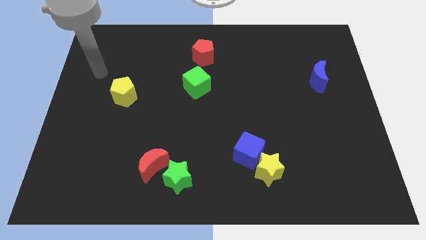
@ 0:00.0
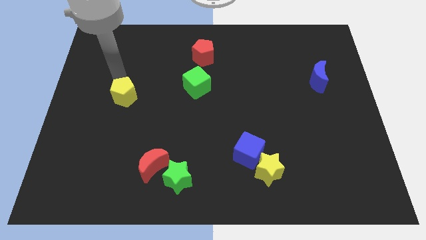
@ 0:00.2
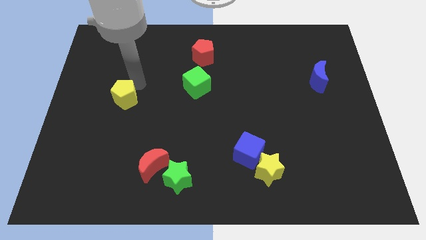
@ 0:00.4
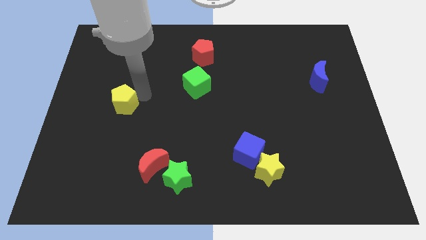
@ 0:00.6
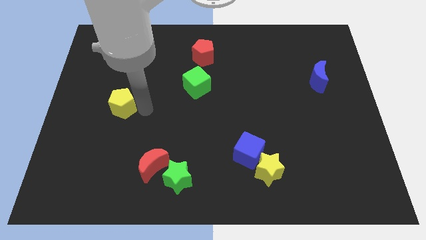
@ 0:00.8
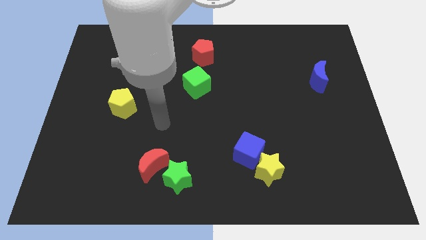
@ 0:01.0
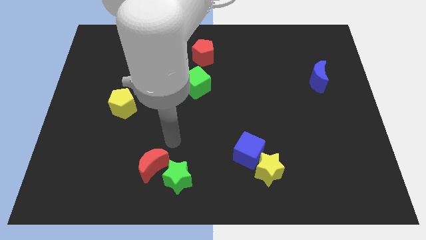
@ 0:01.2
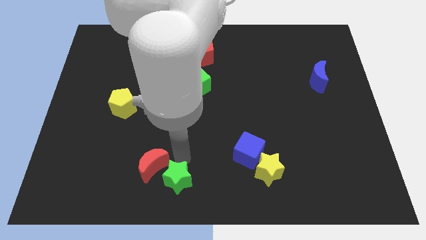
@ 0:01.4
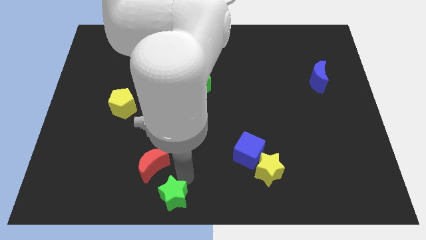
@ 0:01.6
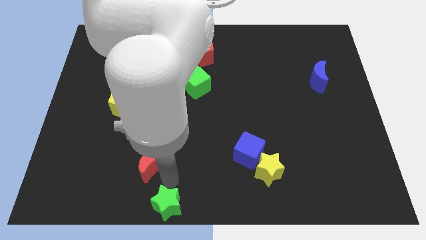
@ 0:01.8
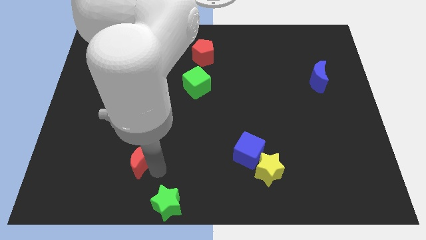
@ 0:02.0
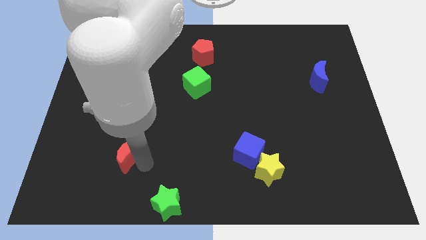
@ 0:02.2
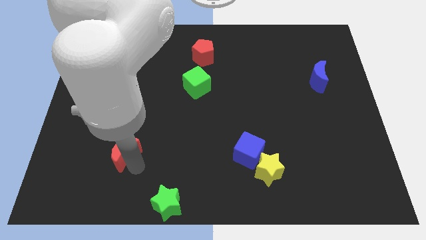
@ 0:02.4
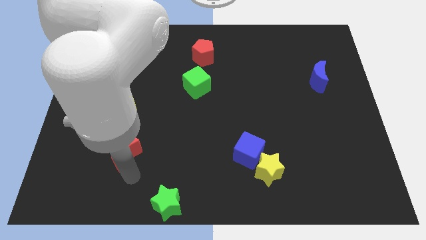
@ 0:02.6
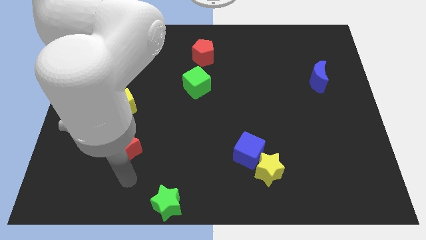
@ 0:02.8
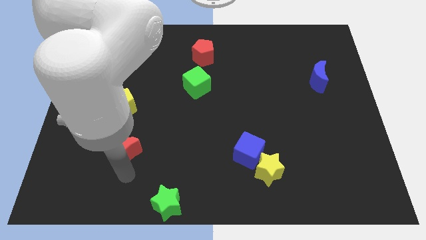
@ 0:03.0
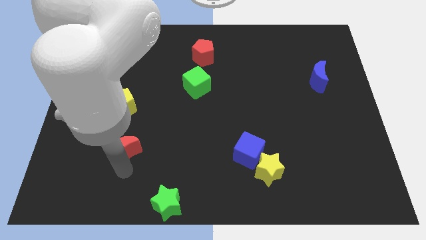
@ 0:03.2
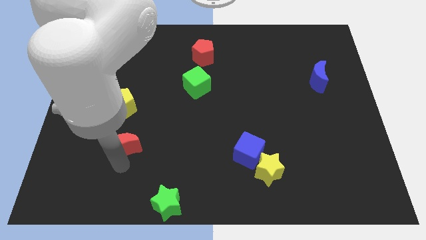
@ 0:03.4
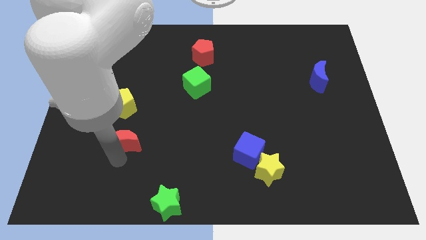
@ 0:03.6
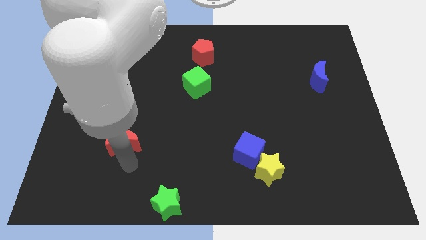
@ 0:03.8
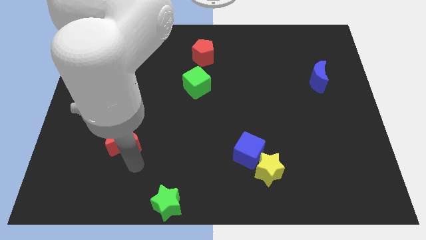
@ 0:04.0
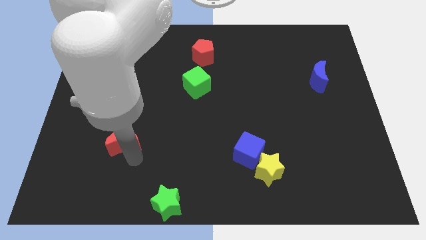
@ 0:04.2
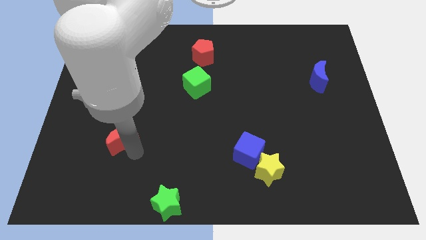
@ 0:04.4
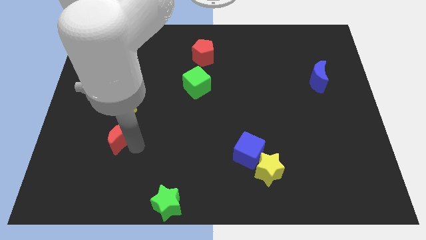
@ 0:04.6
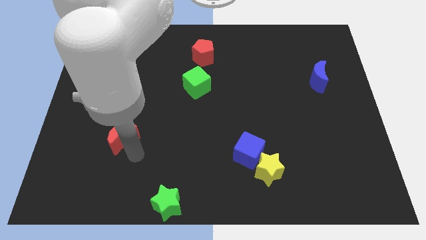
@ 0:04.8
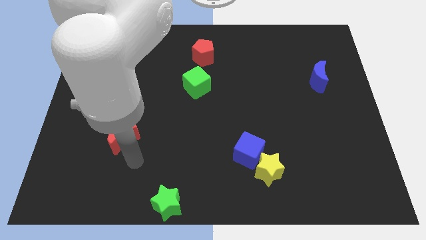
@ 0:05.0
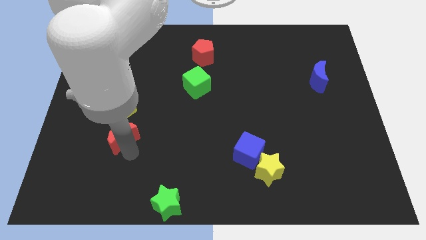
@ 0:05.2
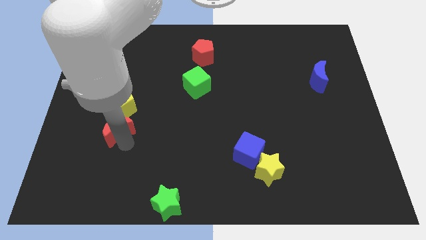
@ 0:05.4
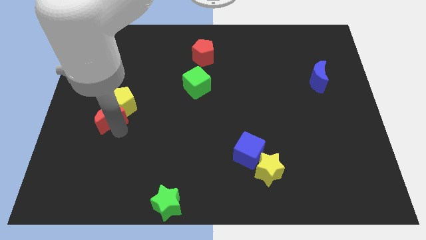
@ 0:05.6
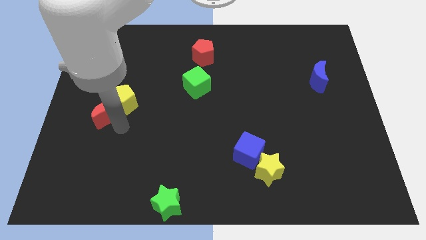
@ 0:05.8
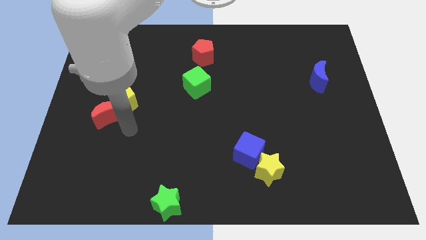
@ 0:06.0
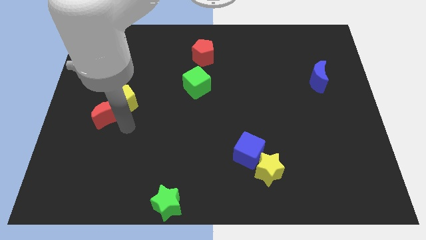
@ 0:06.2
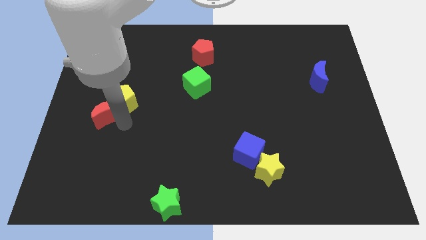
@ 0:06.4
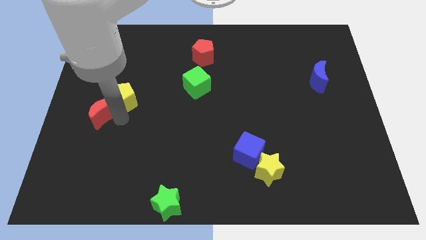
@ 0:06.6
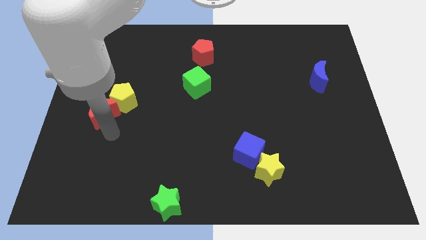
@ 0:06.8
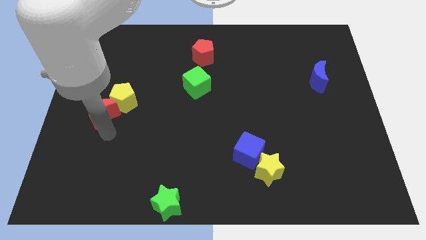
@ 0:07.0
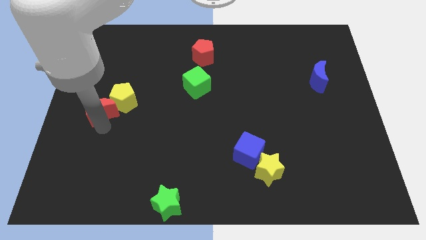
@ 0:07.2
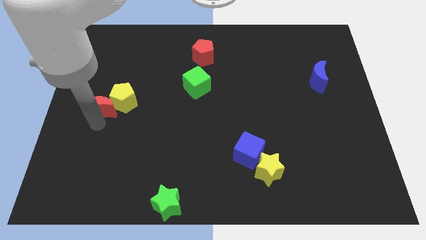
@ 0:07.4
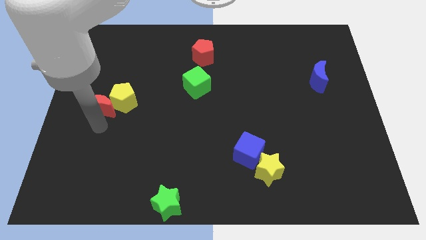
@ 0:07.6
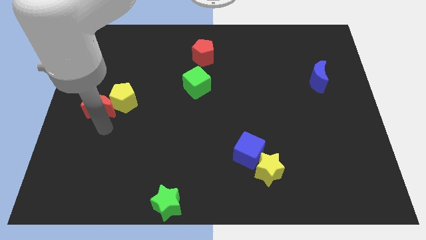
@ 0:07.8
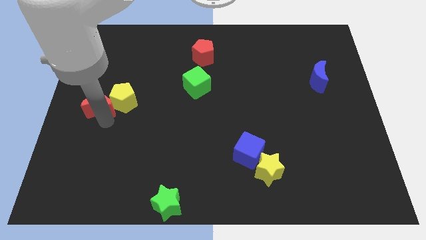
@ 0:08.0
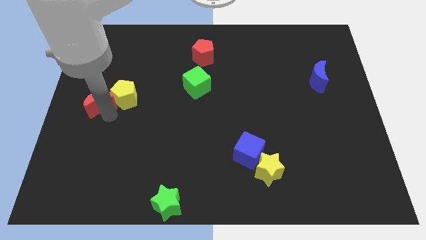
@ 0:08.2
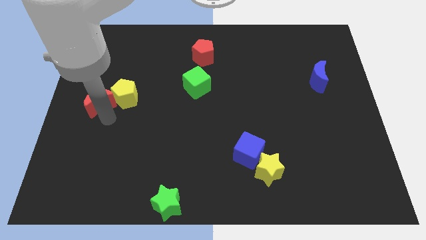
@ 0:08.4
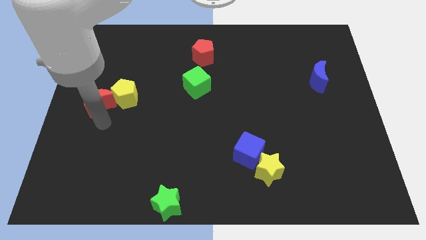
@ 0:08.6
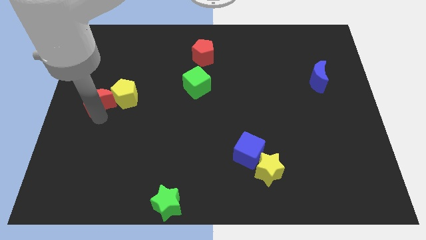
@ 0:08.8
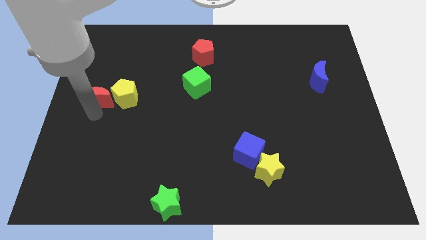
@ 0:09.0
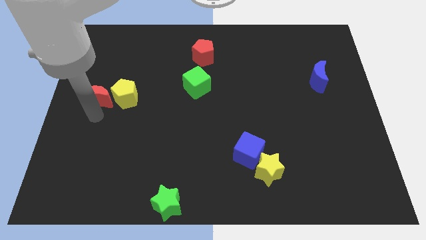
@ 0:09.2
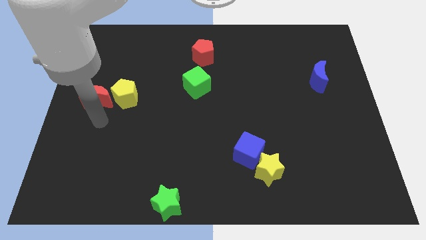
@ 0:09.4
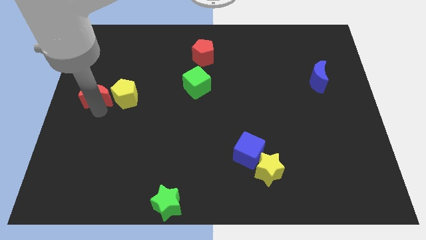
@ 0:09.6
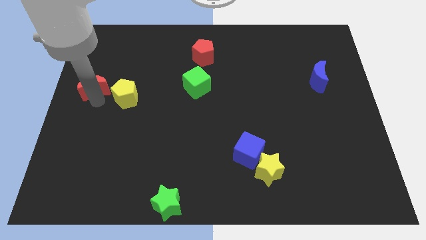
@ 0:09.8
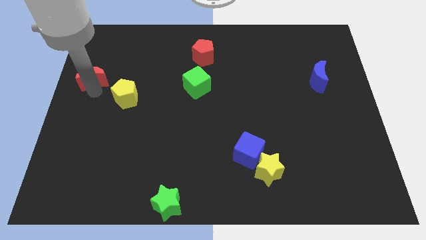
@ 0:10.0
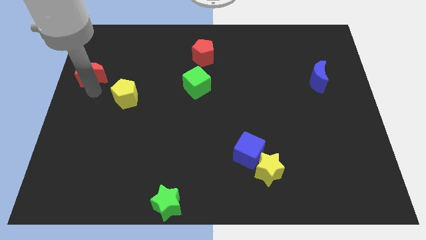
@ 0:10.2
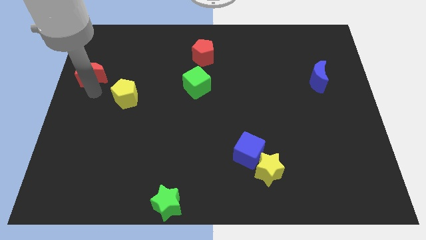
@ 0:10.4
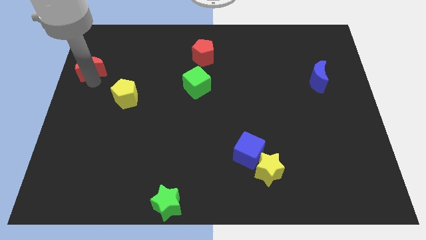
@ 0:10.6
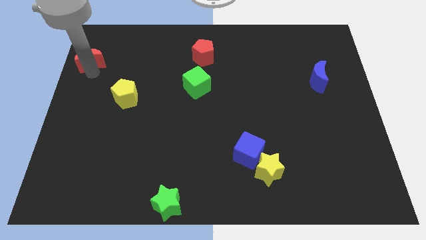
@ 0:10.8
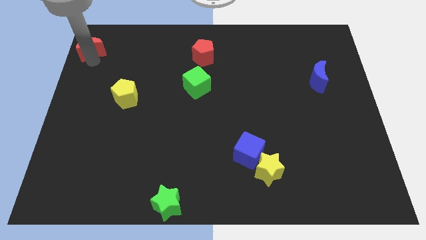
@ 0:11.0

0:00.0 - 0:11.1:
move the red moon to the upper left corner

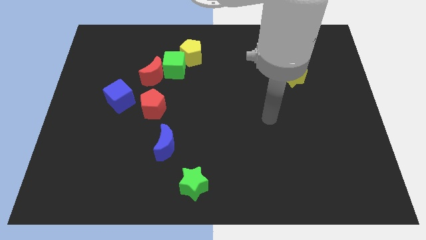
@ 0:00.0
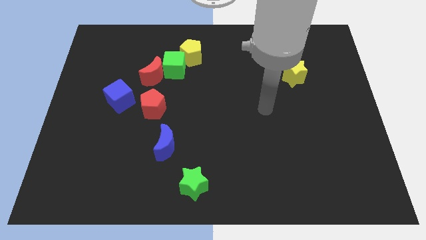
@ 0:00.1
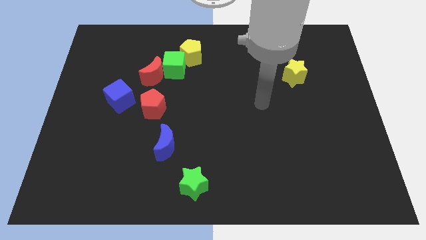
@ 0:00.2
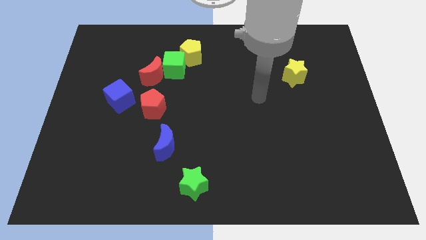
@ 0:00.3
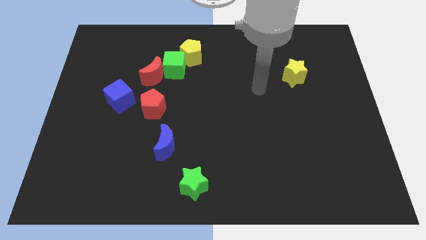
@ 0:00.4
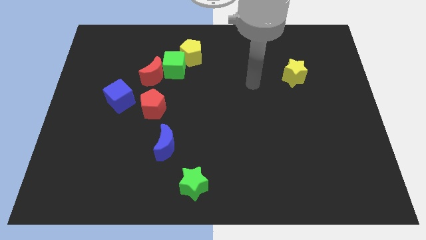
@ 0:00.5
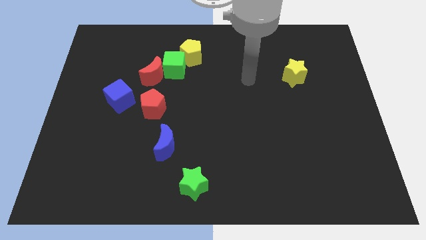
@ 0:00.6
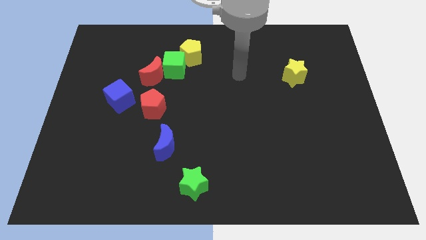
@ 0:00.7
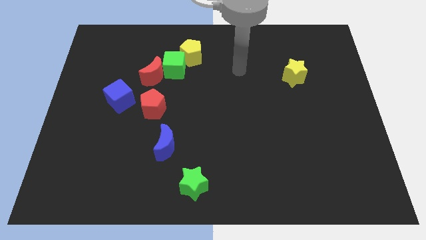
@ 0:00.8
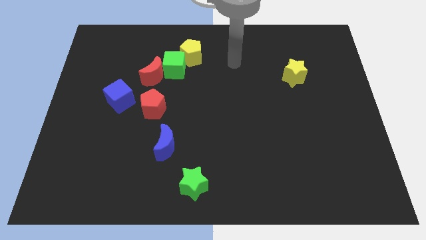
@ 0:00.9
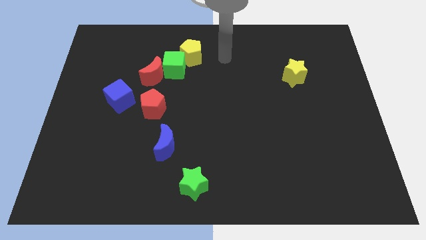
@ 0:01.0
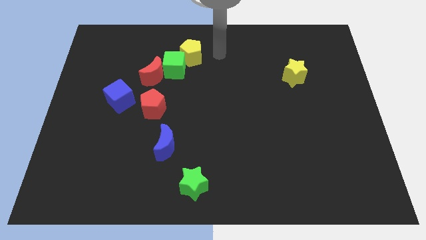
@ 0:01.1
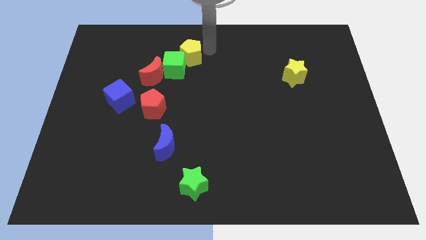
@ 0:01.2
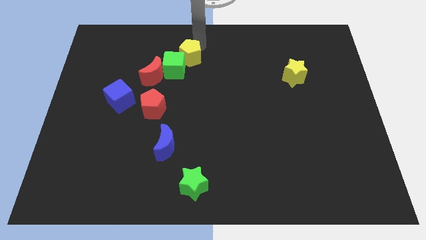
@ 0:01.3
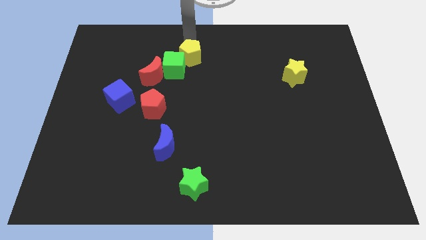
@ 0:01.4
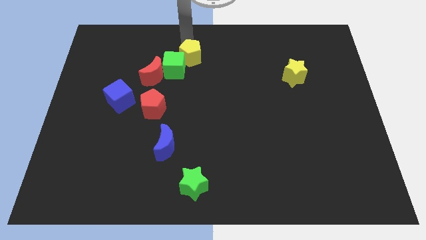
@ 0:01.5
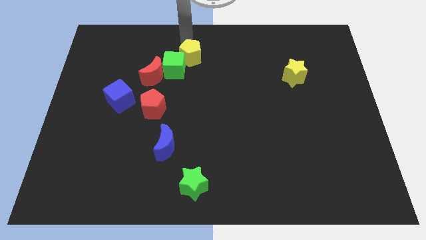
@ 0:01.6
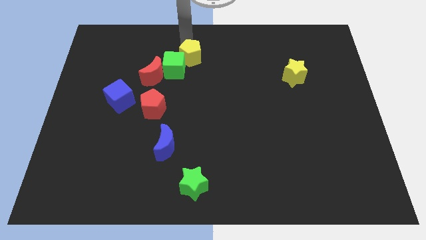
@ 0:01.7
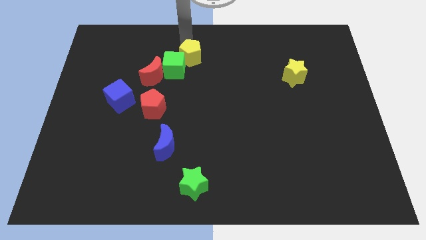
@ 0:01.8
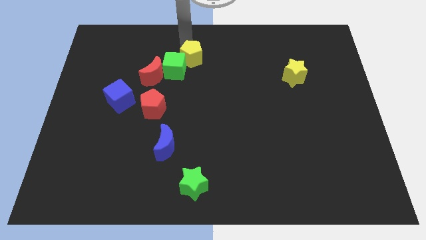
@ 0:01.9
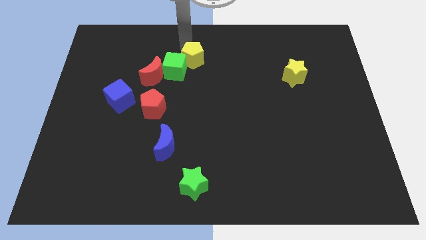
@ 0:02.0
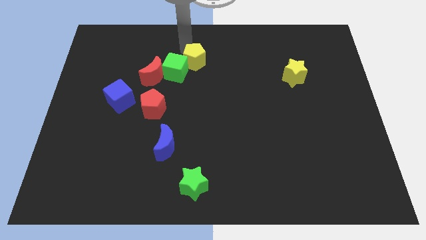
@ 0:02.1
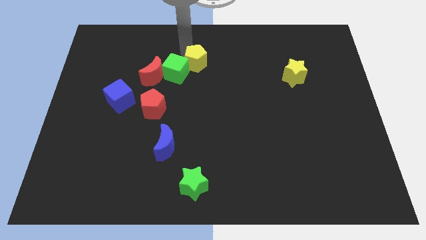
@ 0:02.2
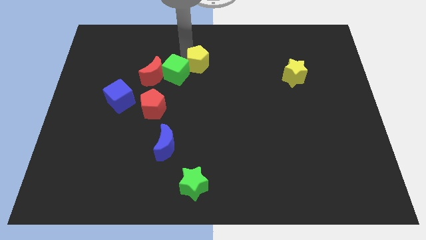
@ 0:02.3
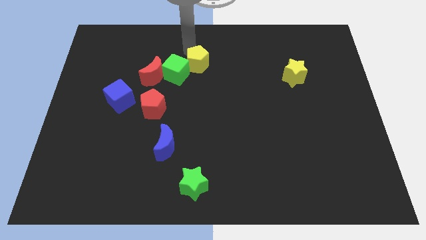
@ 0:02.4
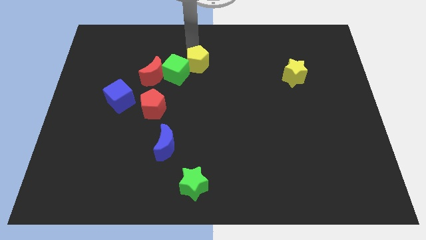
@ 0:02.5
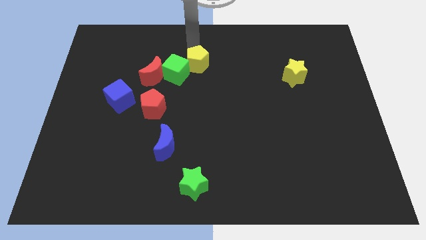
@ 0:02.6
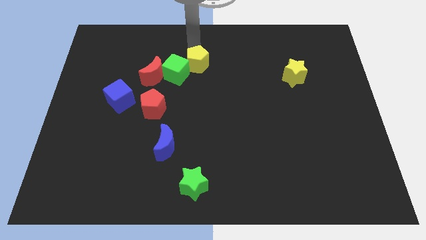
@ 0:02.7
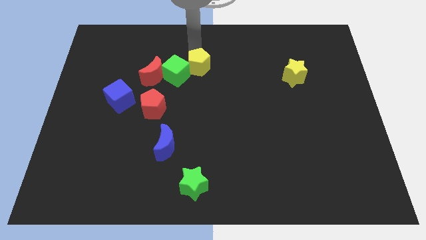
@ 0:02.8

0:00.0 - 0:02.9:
move the yellow pentagon to the center of the board
